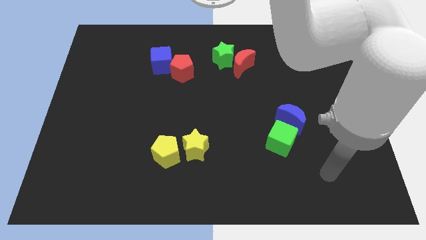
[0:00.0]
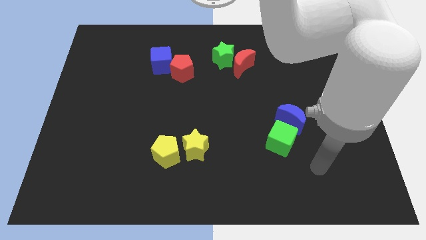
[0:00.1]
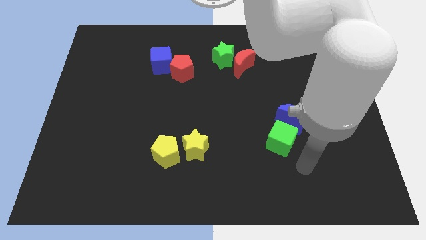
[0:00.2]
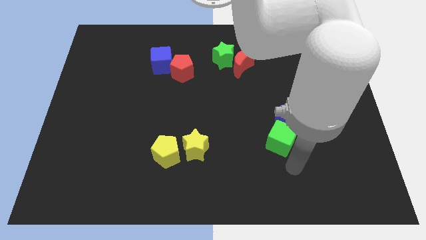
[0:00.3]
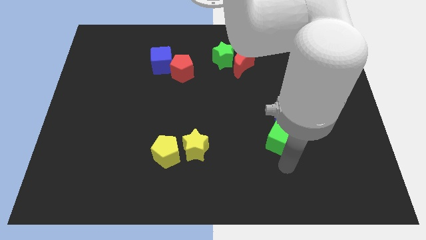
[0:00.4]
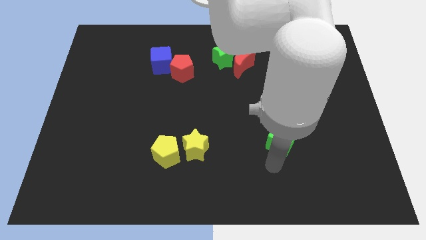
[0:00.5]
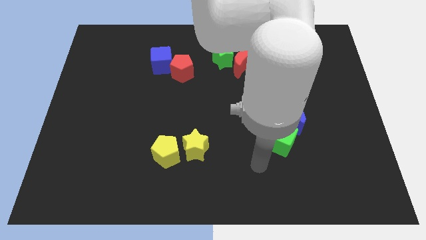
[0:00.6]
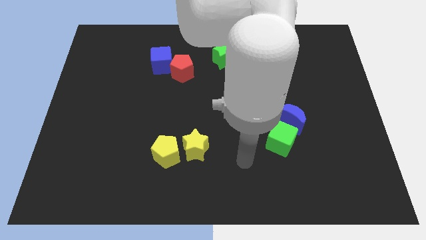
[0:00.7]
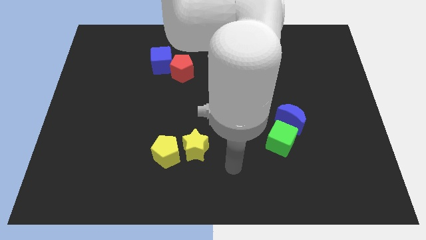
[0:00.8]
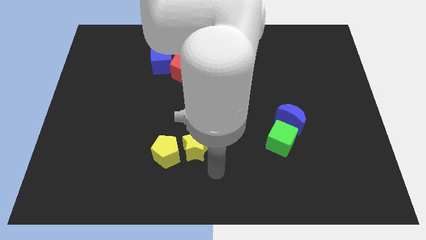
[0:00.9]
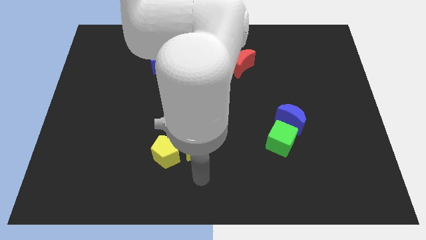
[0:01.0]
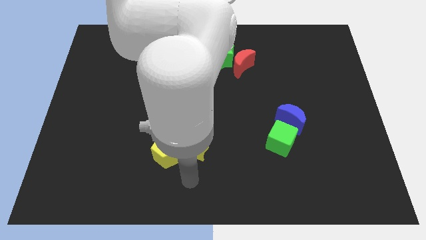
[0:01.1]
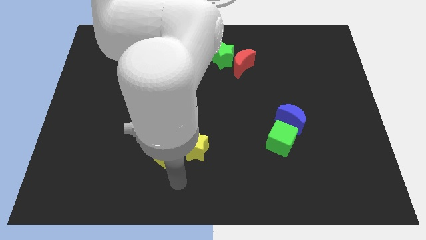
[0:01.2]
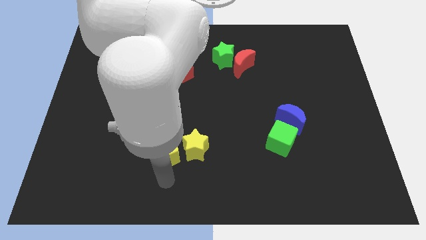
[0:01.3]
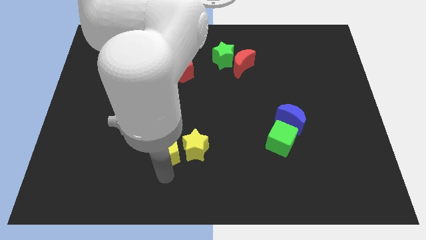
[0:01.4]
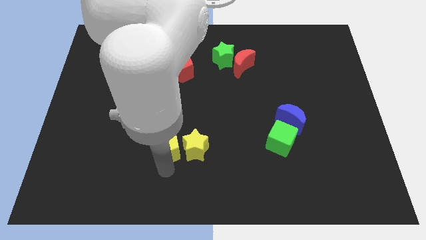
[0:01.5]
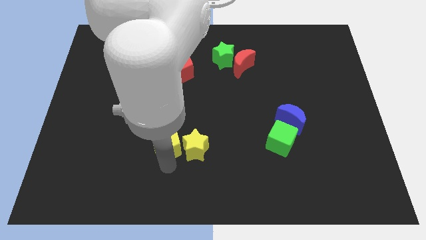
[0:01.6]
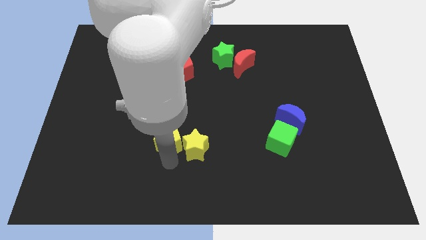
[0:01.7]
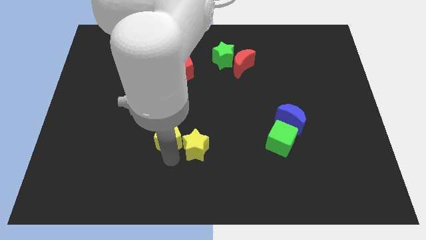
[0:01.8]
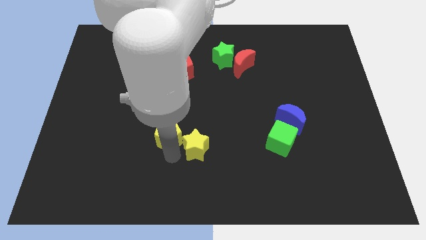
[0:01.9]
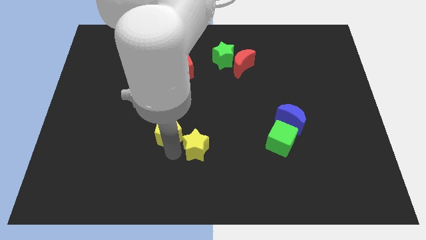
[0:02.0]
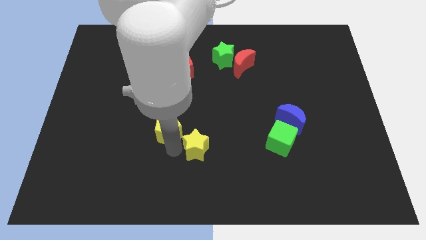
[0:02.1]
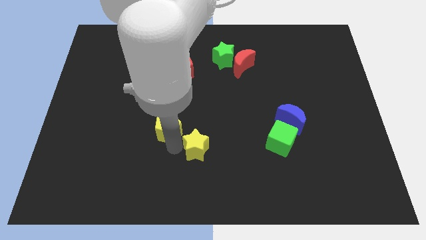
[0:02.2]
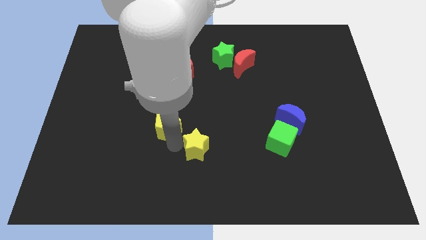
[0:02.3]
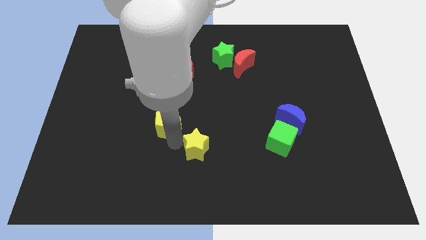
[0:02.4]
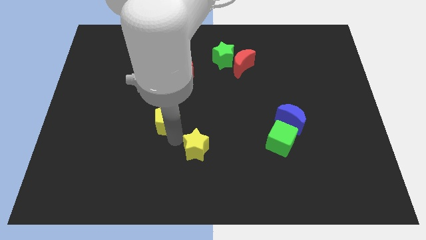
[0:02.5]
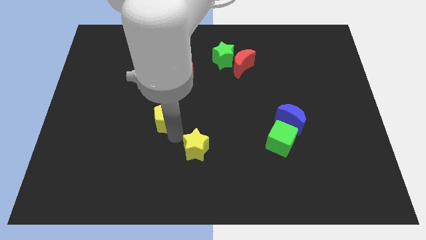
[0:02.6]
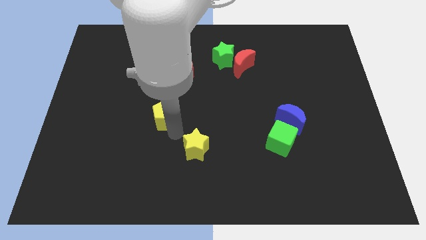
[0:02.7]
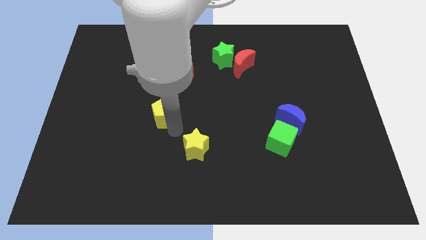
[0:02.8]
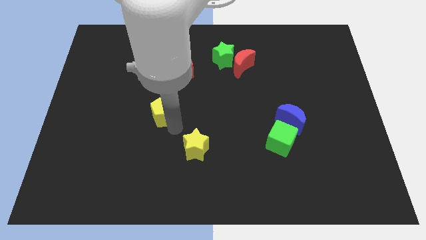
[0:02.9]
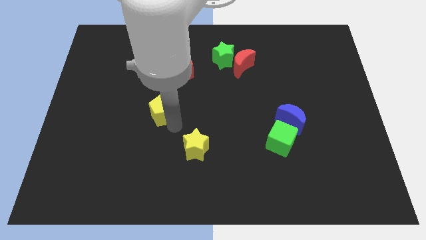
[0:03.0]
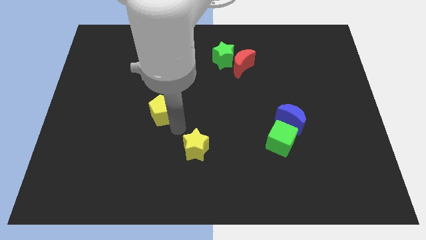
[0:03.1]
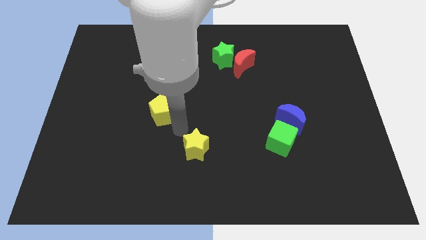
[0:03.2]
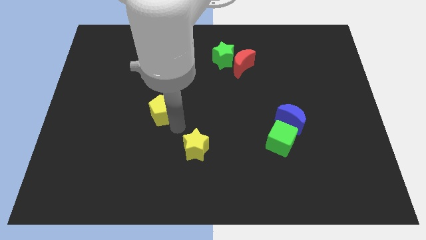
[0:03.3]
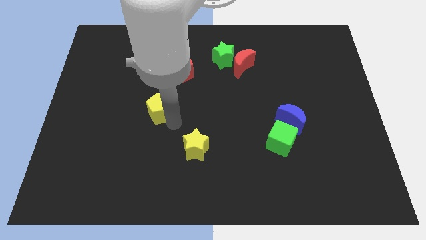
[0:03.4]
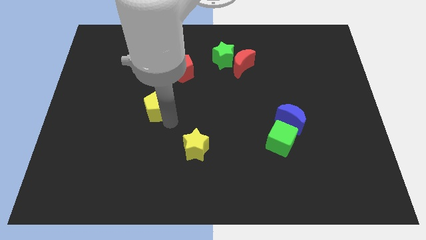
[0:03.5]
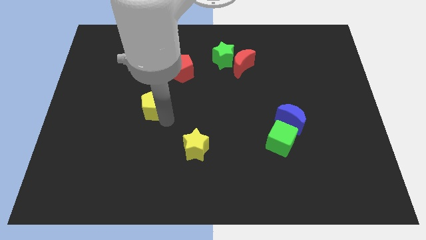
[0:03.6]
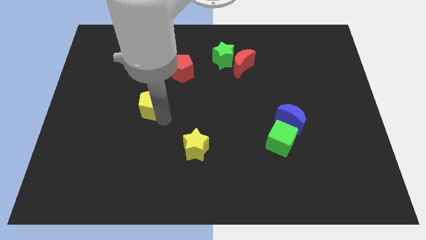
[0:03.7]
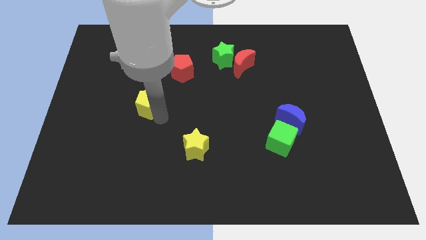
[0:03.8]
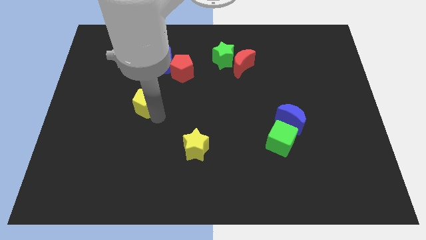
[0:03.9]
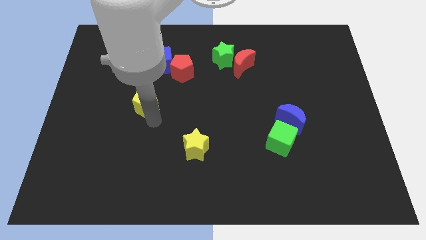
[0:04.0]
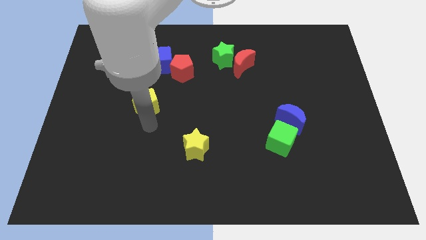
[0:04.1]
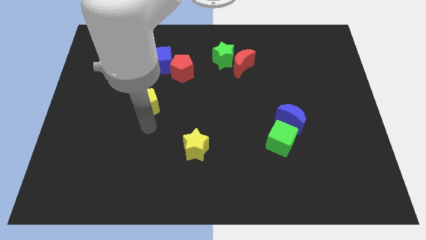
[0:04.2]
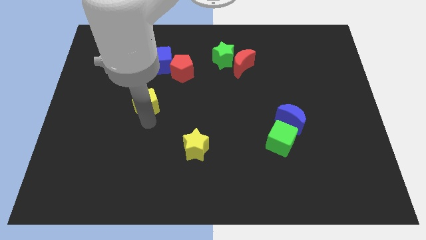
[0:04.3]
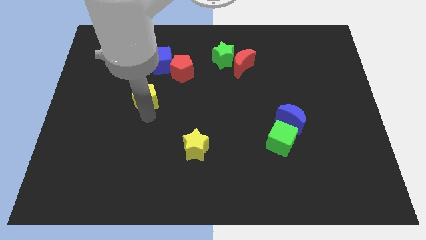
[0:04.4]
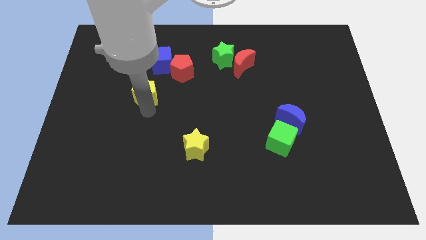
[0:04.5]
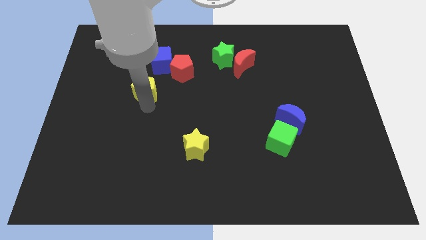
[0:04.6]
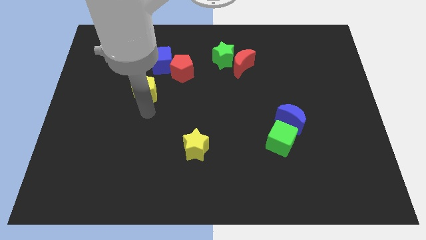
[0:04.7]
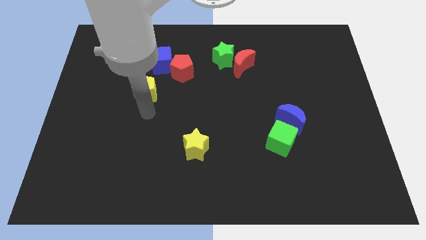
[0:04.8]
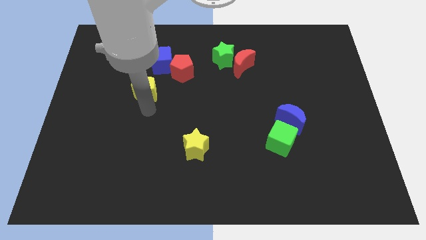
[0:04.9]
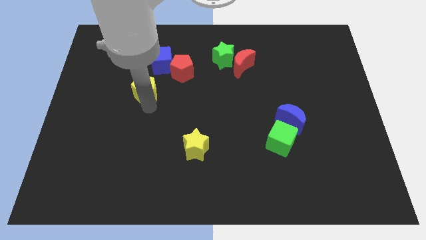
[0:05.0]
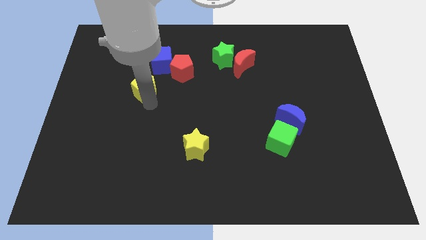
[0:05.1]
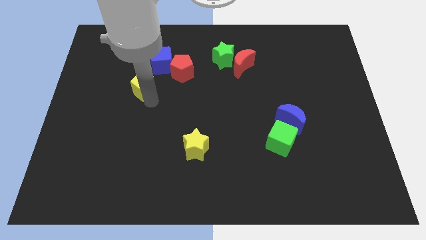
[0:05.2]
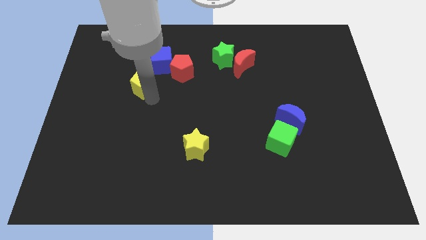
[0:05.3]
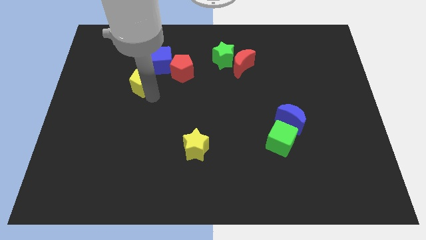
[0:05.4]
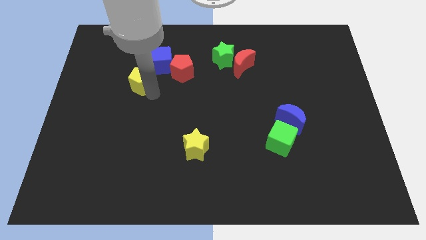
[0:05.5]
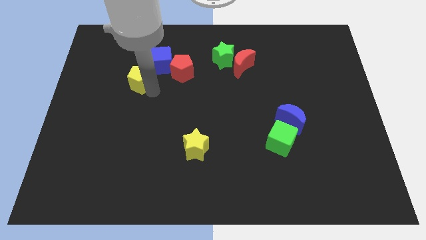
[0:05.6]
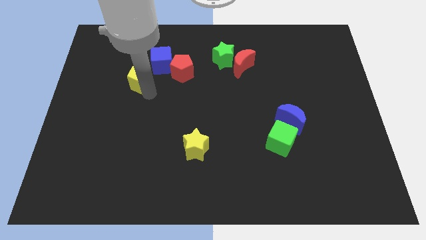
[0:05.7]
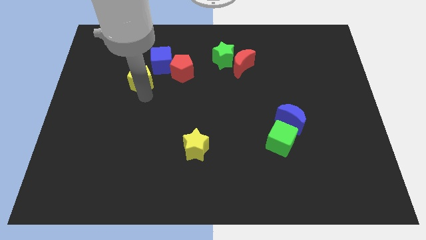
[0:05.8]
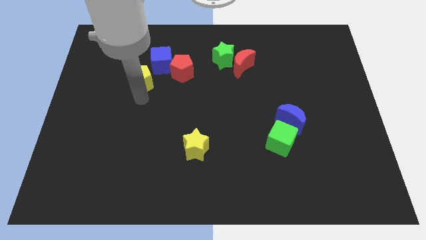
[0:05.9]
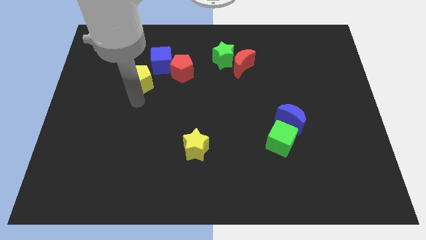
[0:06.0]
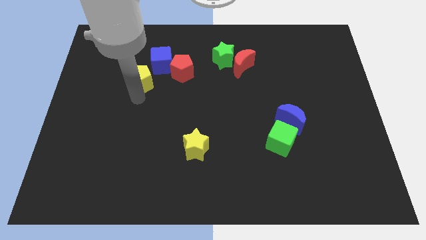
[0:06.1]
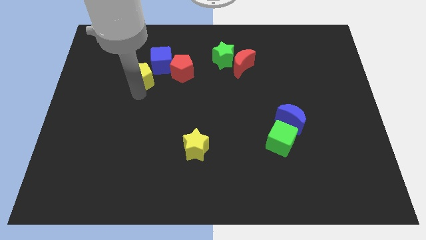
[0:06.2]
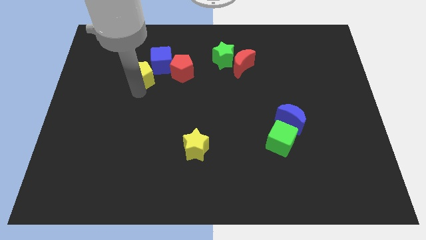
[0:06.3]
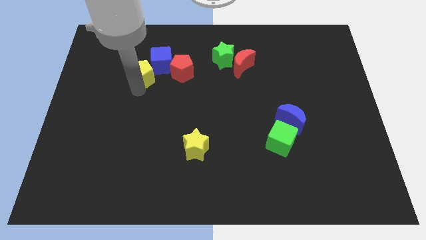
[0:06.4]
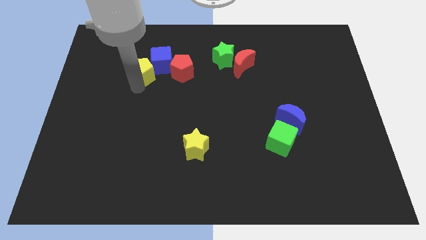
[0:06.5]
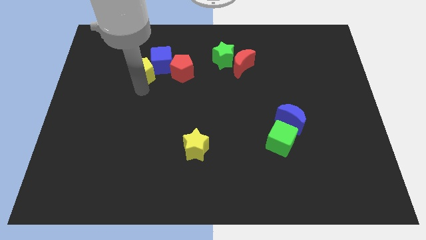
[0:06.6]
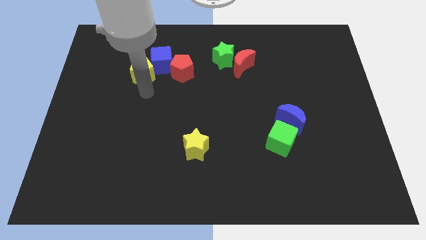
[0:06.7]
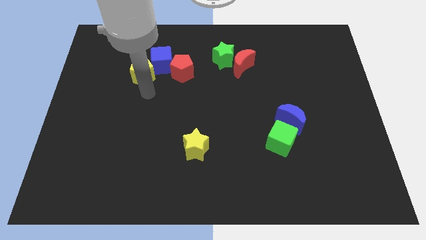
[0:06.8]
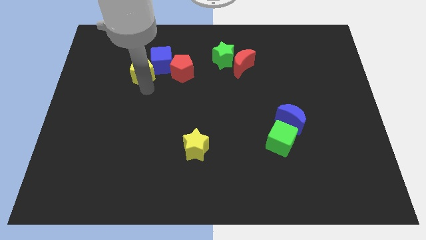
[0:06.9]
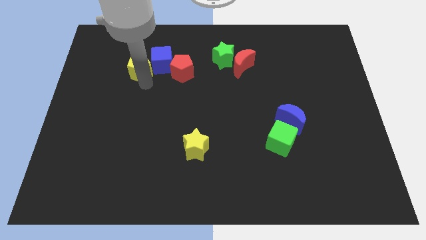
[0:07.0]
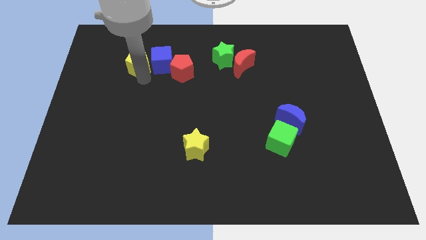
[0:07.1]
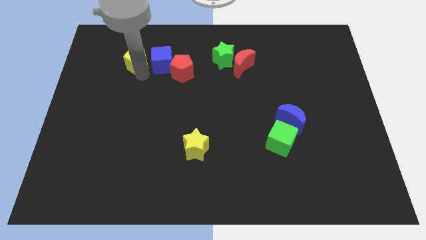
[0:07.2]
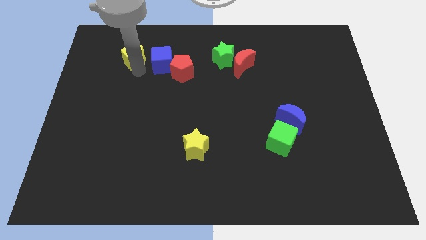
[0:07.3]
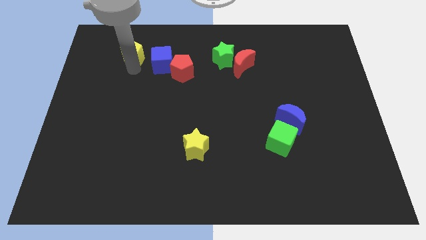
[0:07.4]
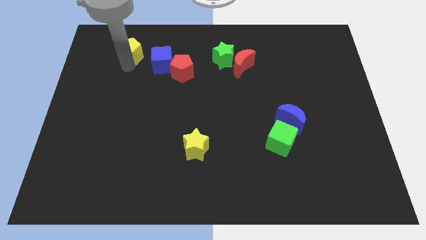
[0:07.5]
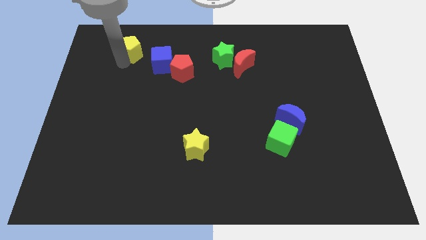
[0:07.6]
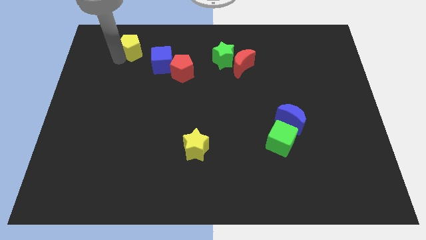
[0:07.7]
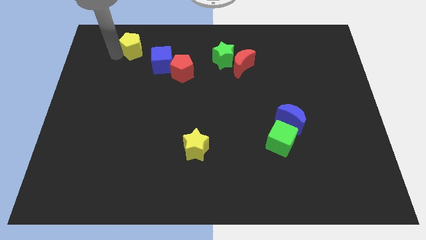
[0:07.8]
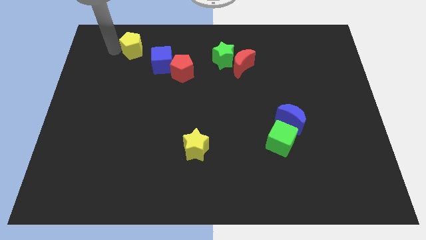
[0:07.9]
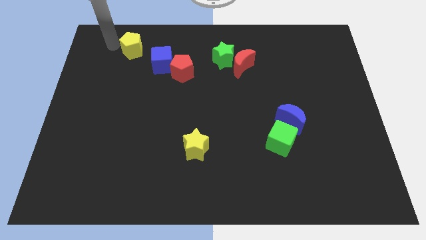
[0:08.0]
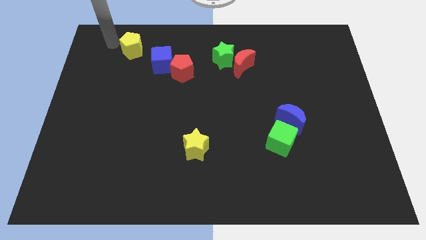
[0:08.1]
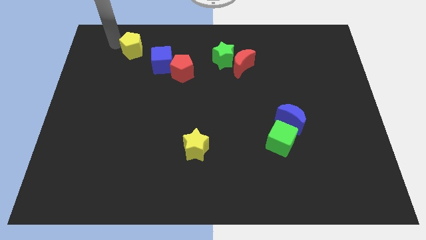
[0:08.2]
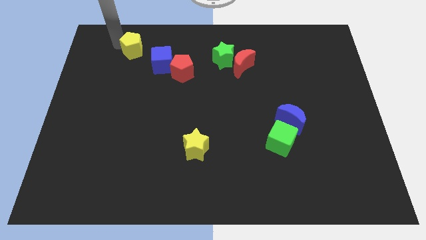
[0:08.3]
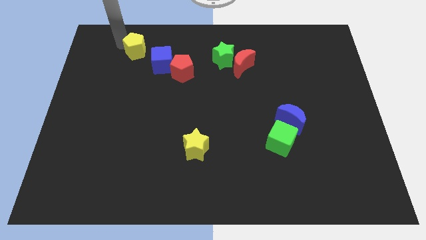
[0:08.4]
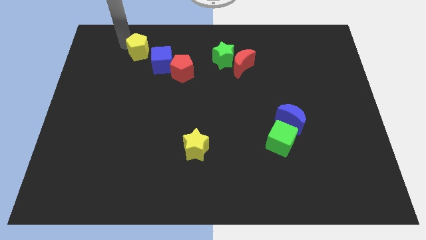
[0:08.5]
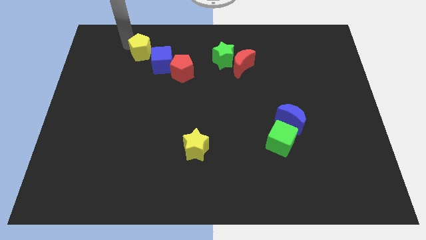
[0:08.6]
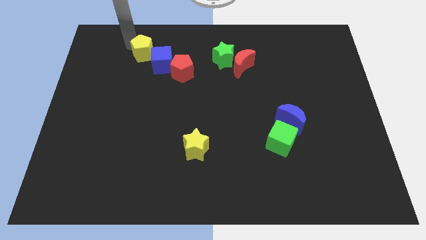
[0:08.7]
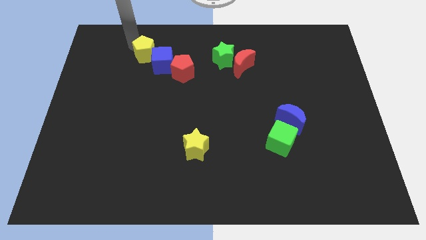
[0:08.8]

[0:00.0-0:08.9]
slide the yellow pentagon diagonally up and to the left of the red pentagon
